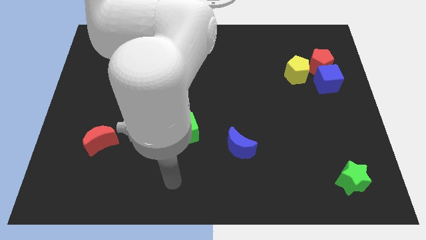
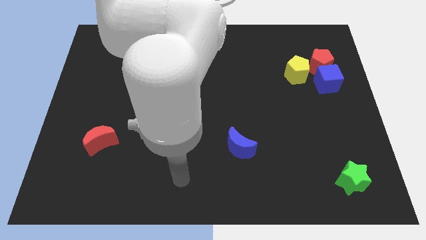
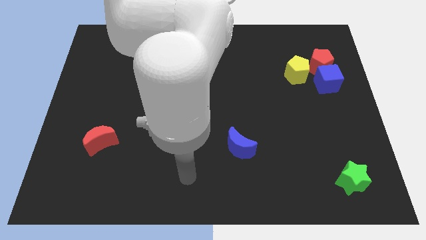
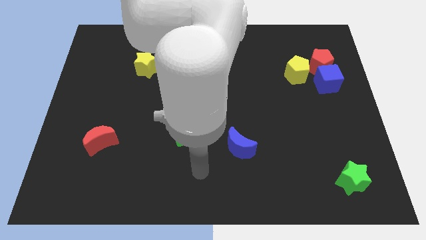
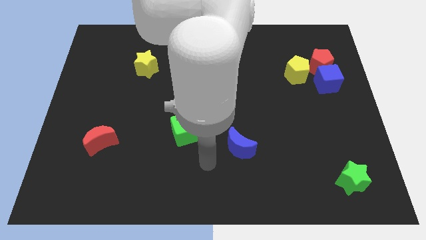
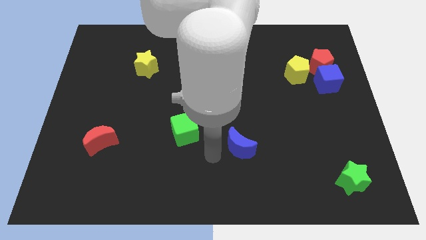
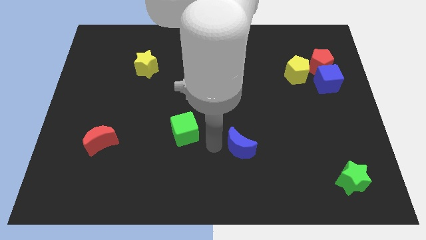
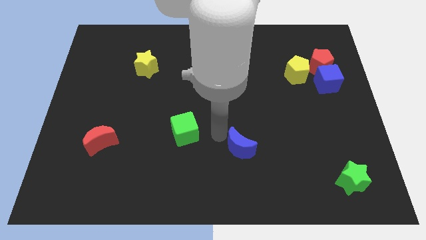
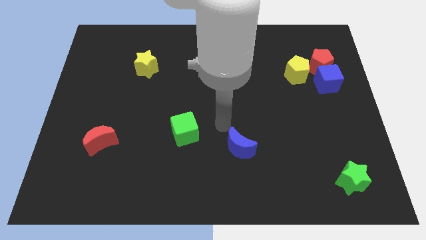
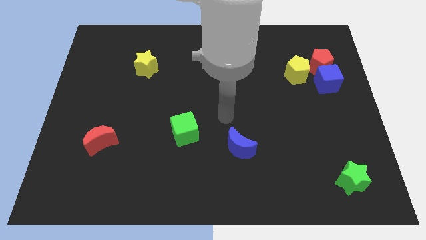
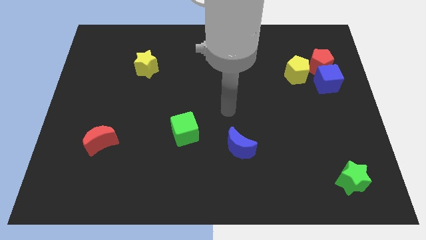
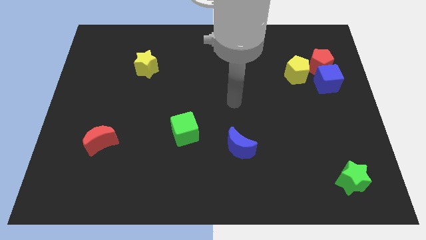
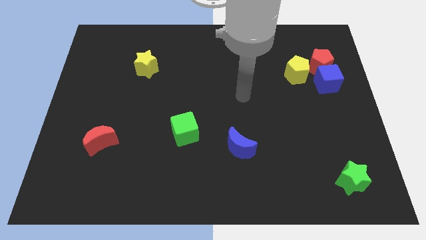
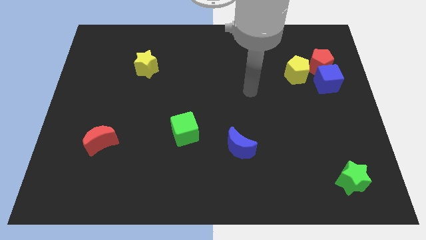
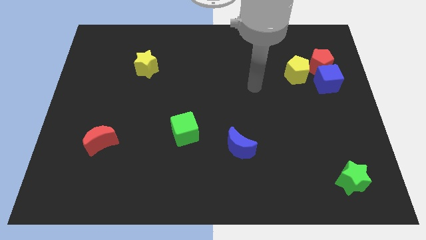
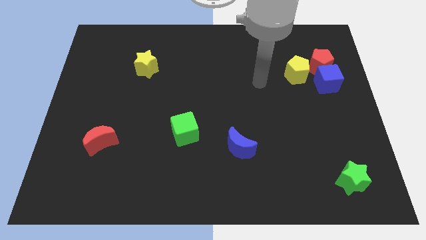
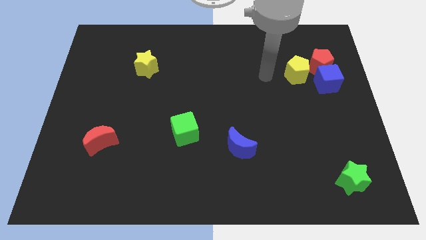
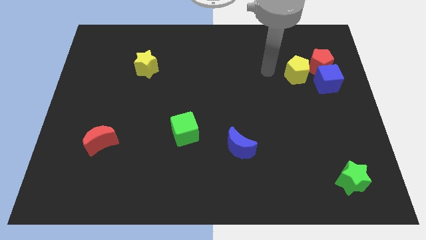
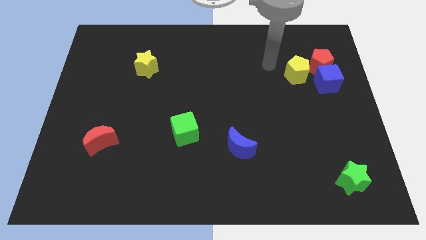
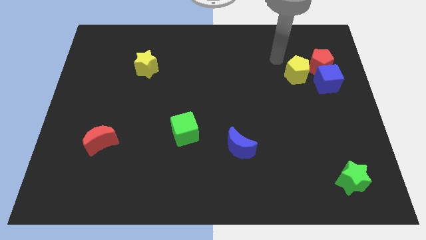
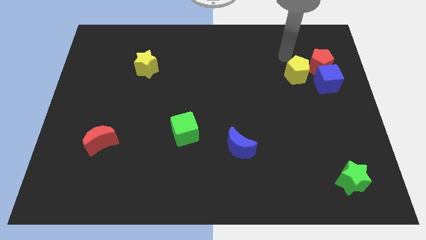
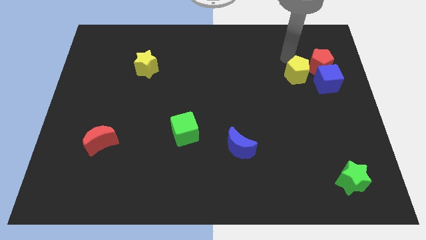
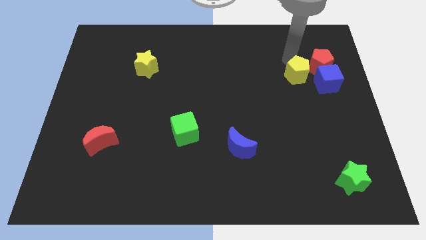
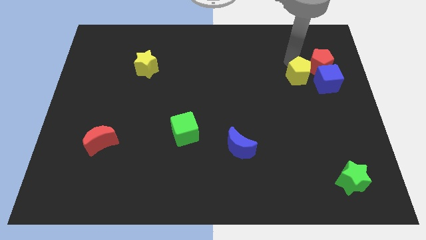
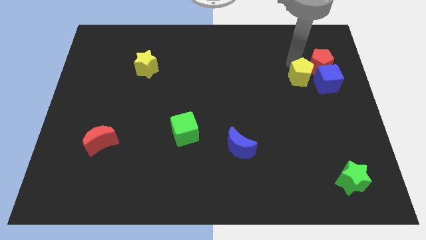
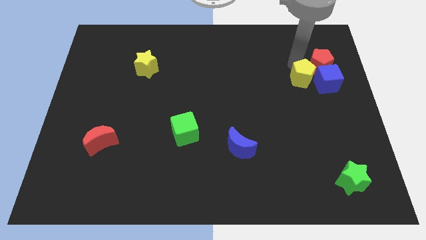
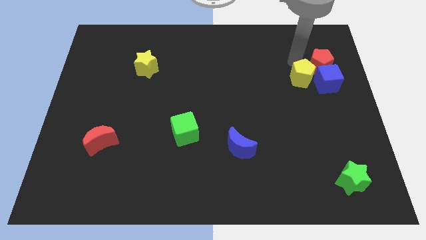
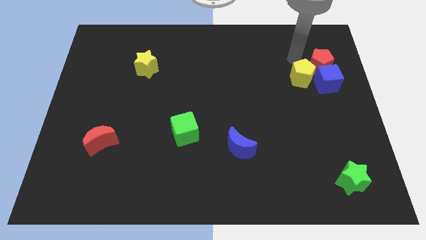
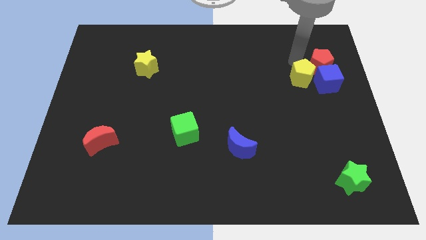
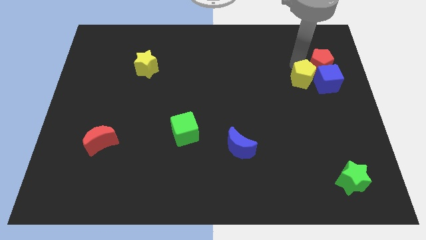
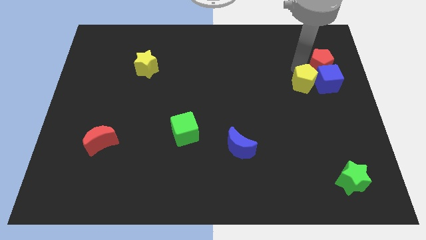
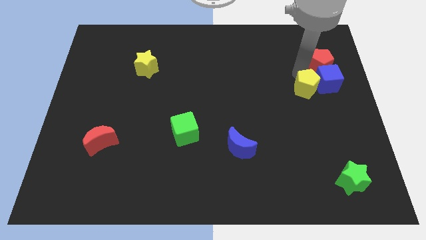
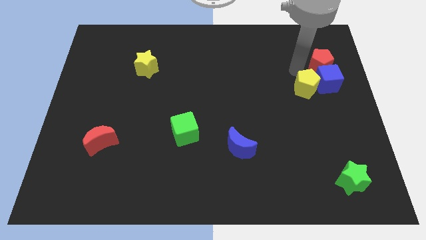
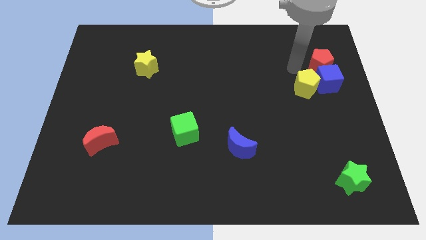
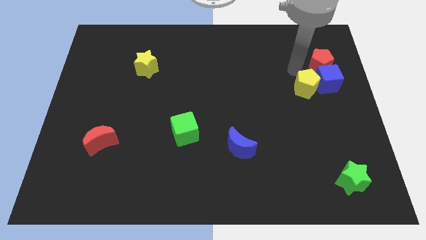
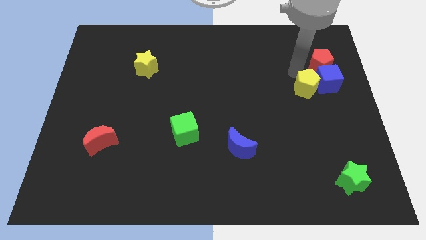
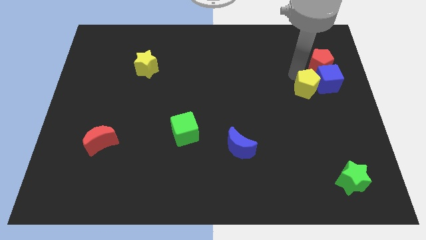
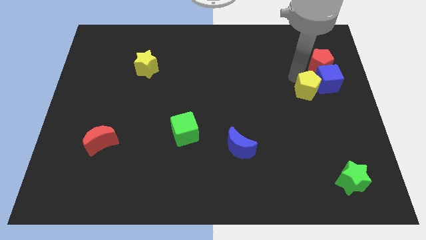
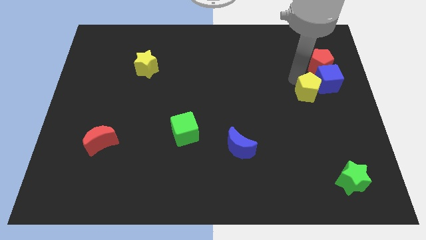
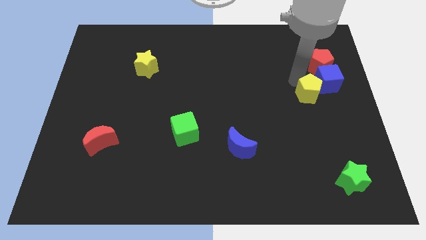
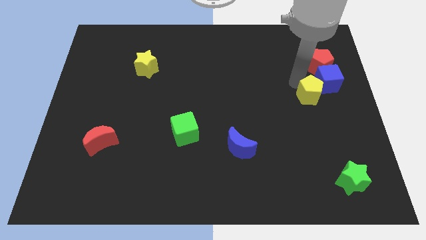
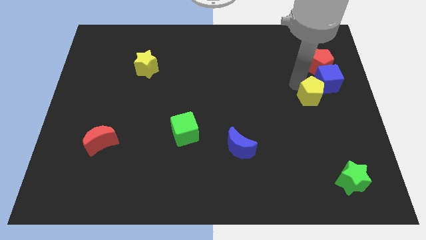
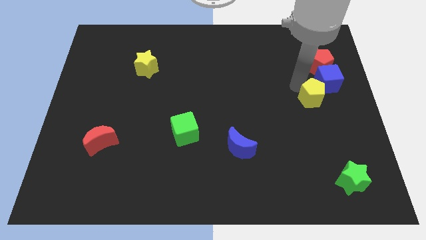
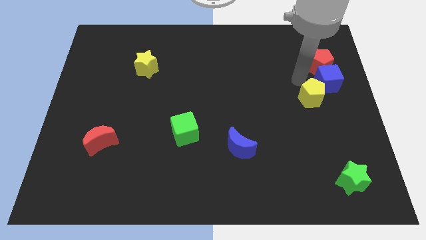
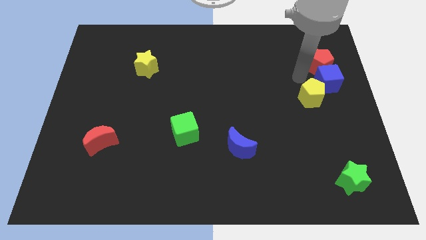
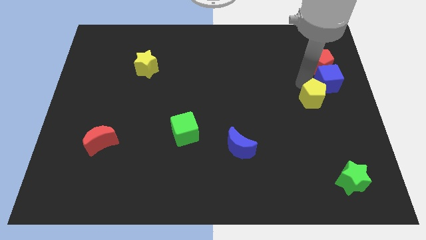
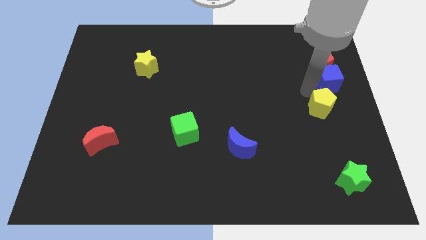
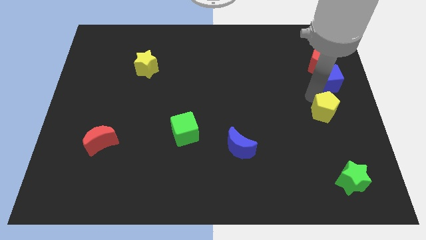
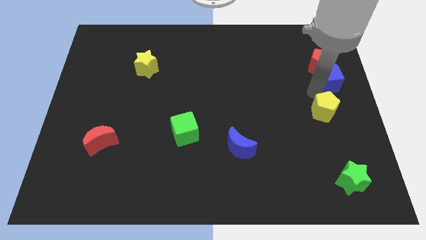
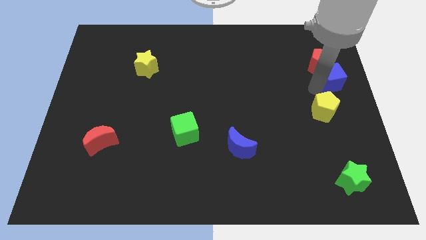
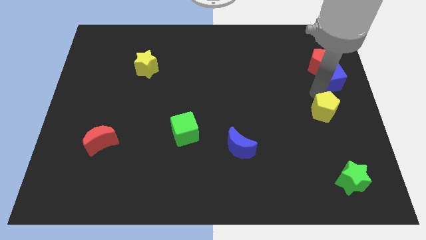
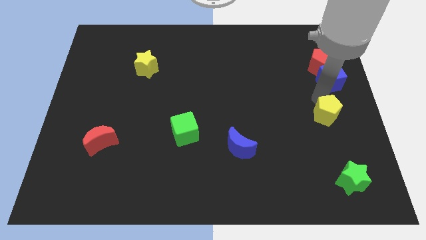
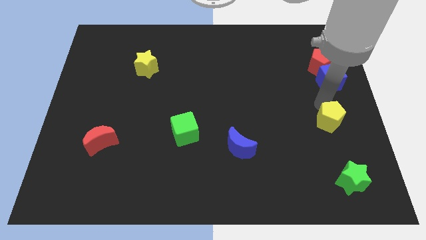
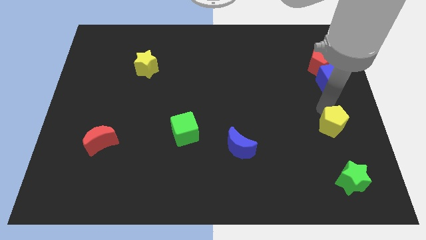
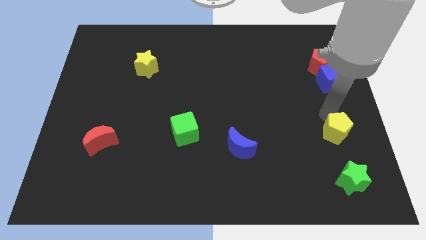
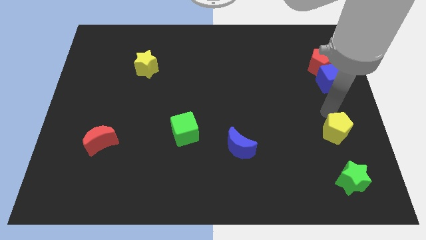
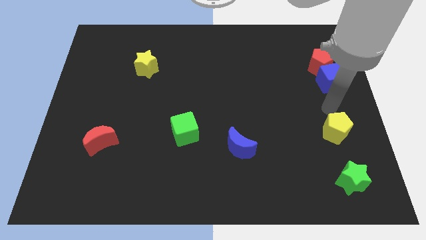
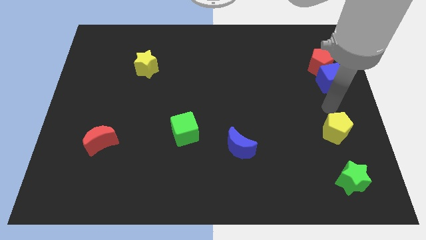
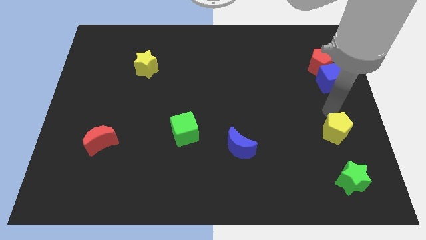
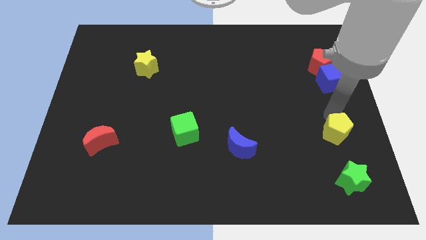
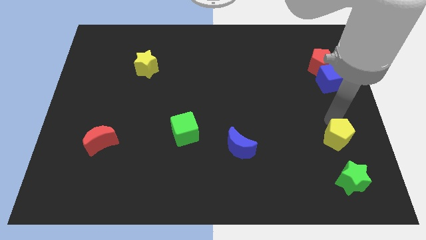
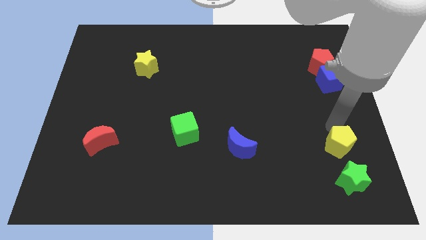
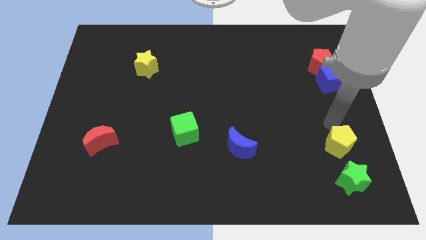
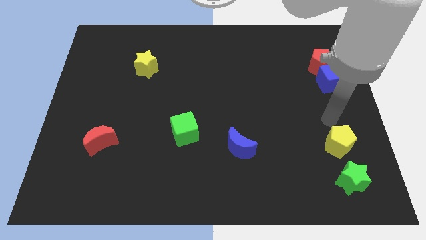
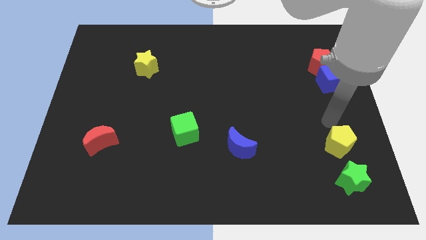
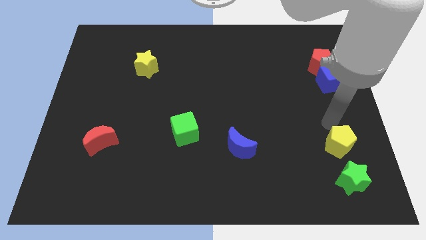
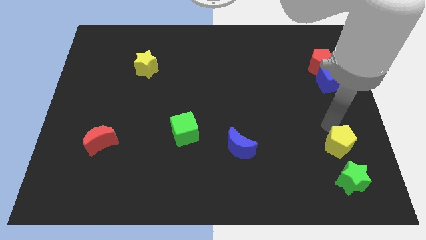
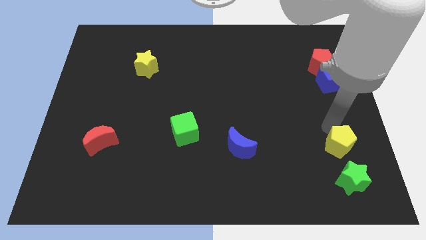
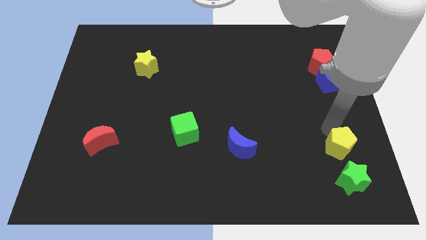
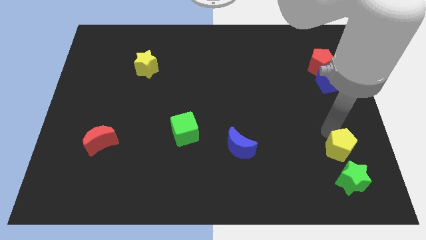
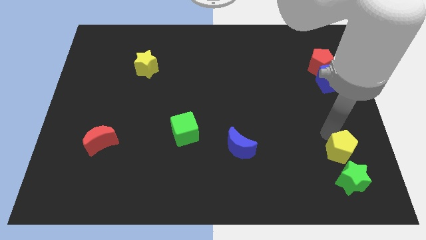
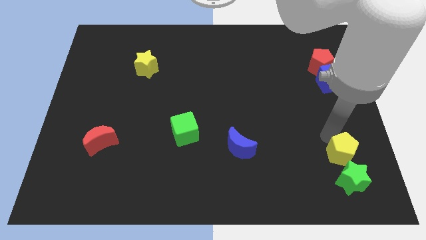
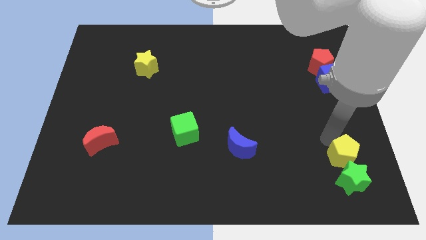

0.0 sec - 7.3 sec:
move the yellow pentagon close to the green star
